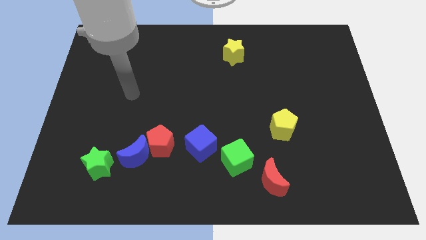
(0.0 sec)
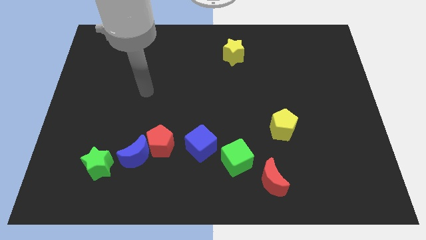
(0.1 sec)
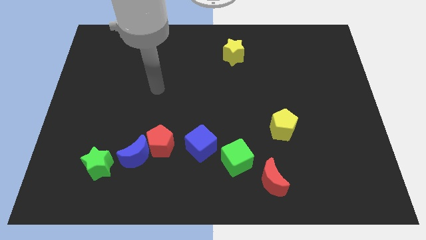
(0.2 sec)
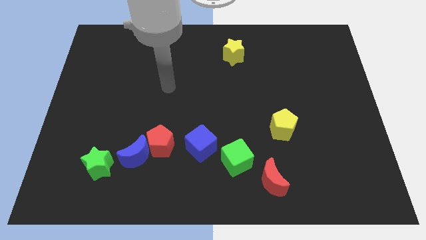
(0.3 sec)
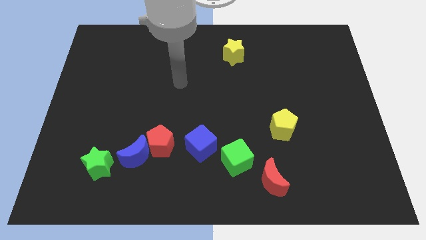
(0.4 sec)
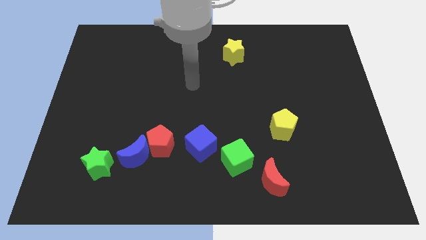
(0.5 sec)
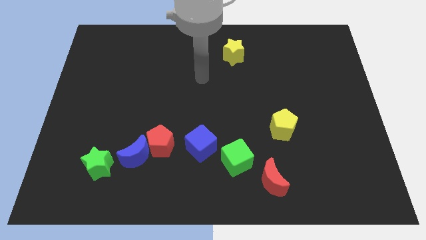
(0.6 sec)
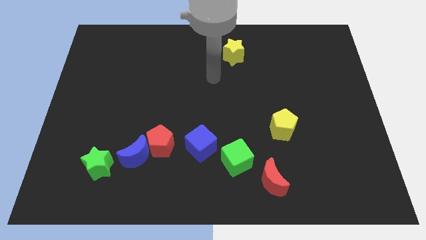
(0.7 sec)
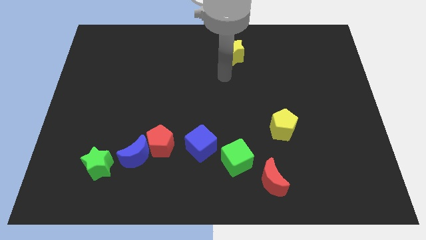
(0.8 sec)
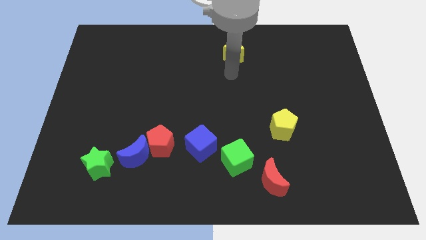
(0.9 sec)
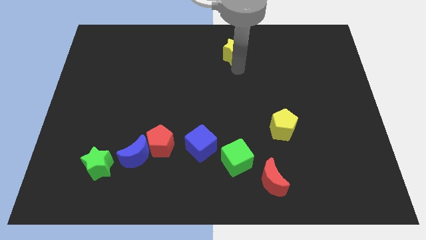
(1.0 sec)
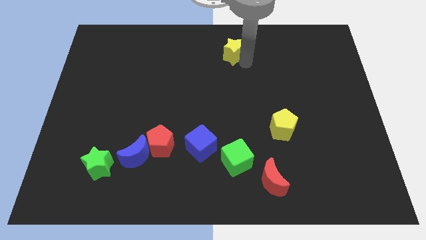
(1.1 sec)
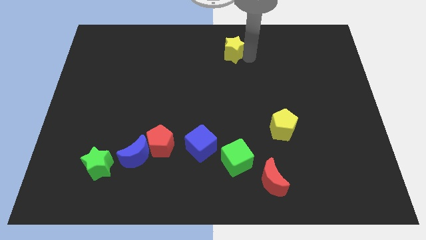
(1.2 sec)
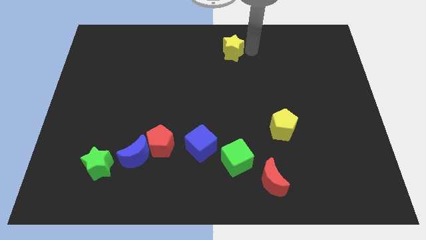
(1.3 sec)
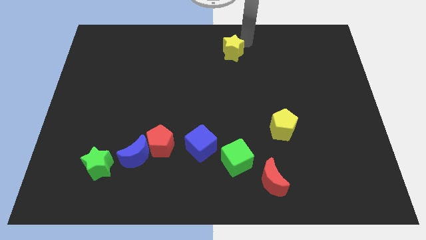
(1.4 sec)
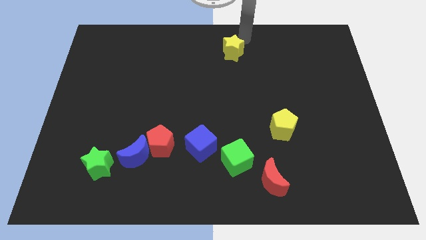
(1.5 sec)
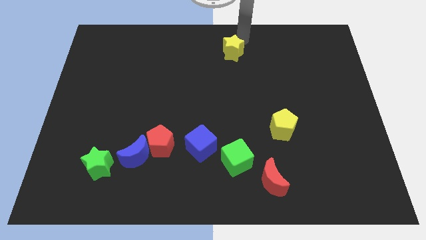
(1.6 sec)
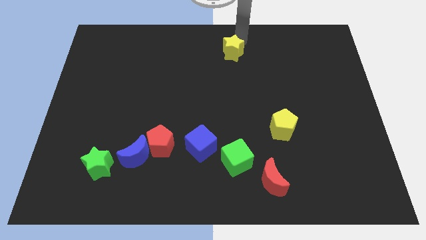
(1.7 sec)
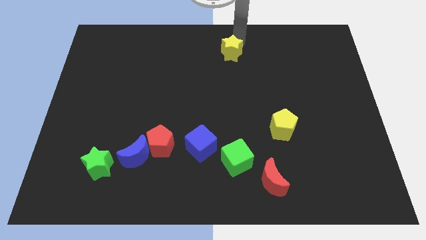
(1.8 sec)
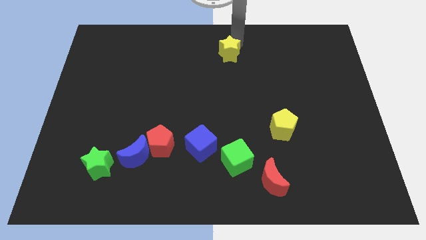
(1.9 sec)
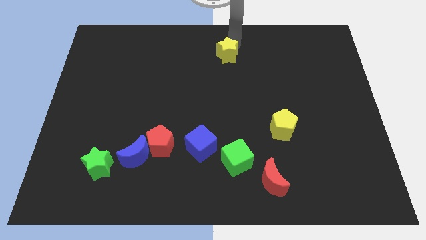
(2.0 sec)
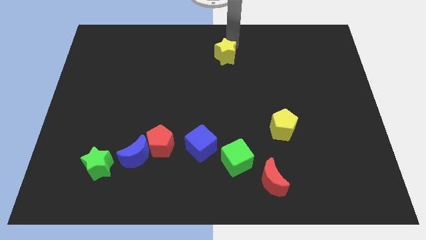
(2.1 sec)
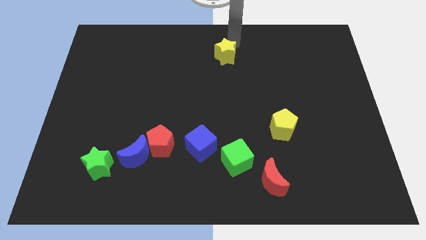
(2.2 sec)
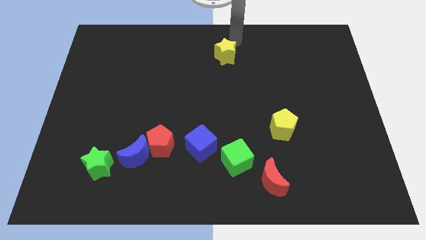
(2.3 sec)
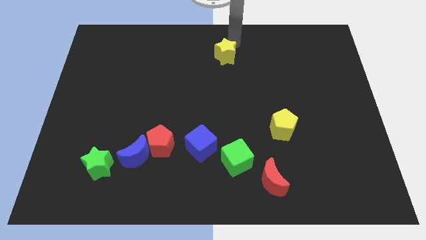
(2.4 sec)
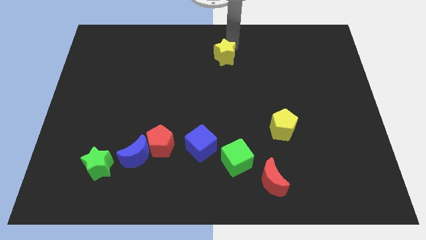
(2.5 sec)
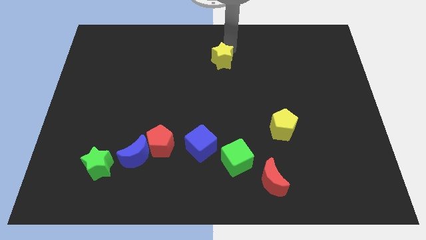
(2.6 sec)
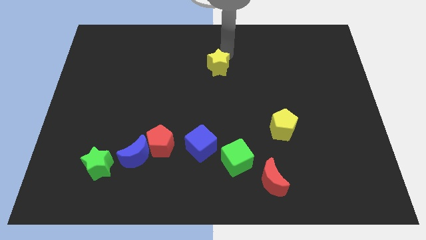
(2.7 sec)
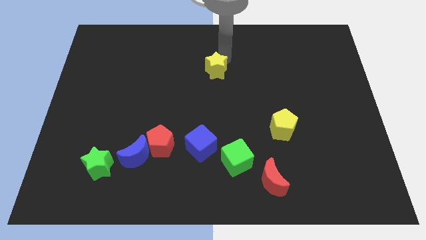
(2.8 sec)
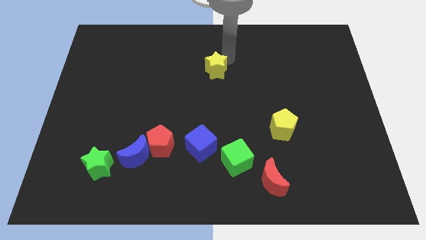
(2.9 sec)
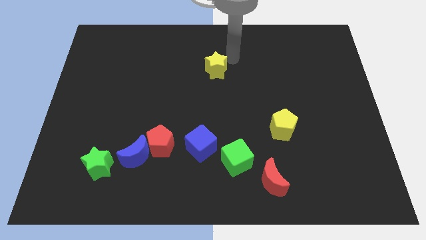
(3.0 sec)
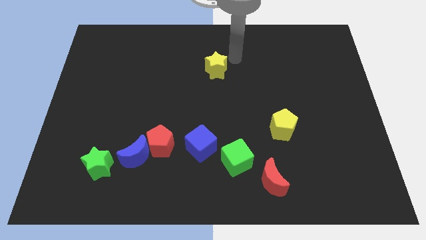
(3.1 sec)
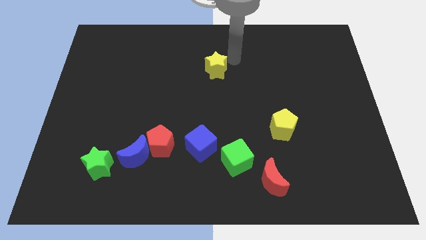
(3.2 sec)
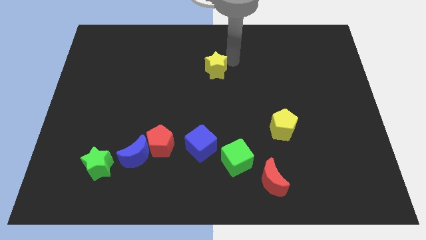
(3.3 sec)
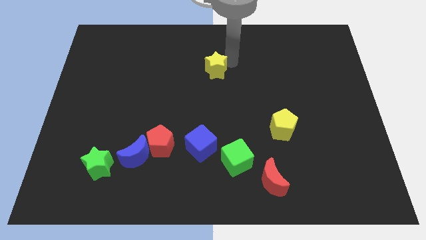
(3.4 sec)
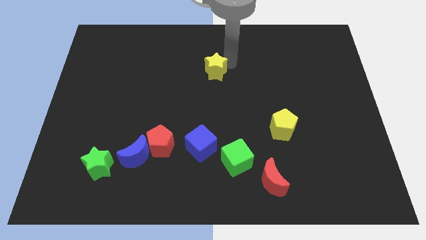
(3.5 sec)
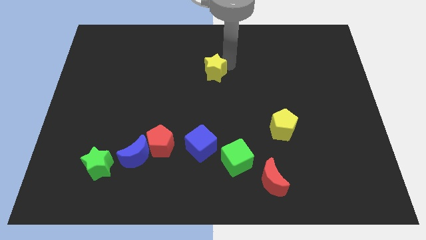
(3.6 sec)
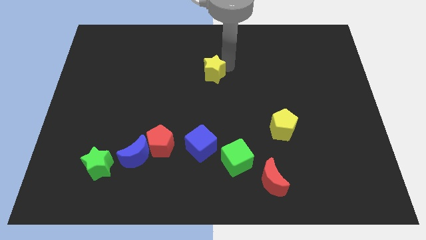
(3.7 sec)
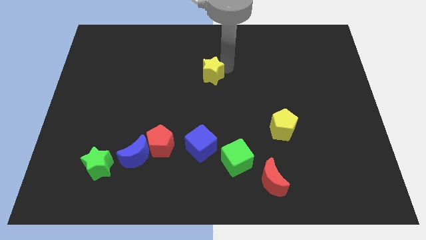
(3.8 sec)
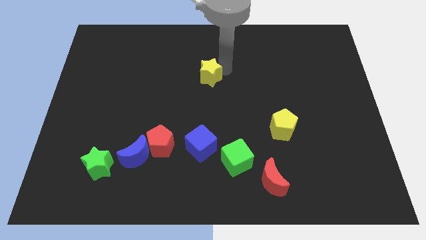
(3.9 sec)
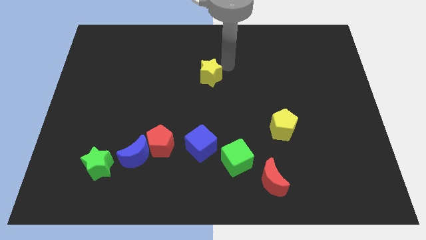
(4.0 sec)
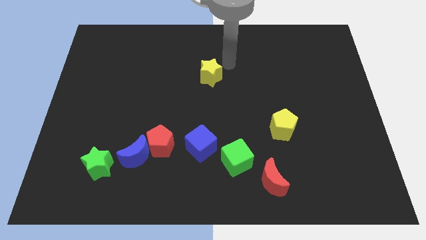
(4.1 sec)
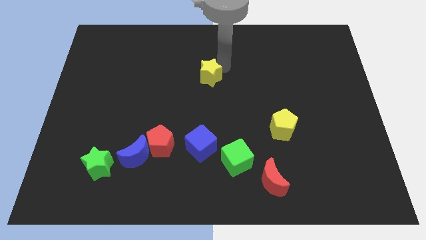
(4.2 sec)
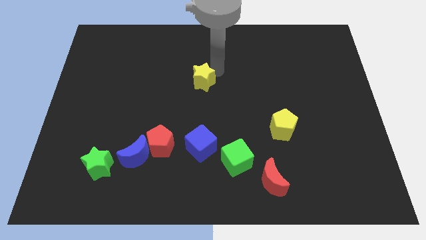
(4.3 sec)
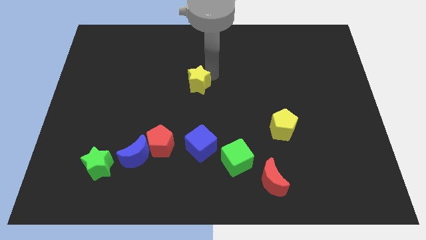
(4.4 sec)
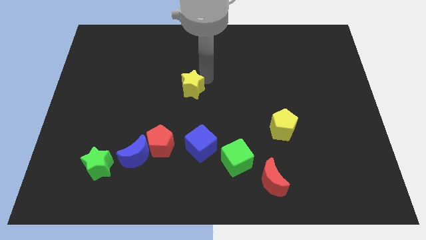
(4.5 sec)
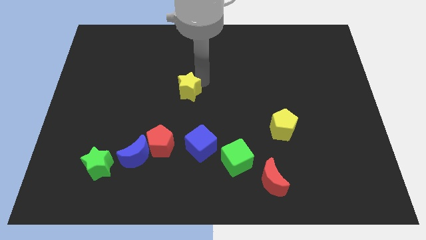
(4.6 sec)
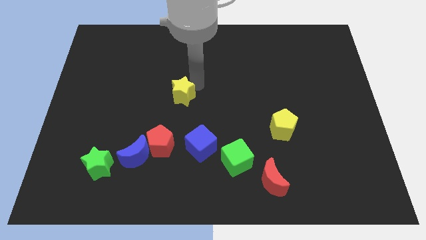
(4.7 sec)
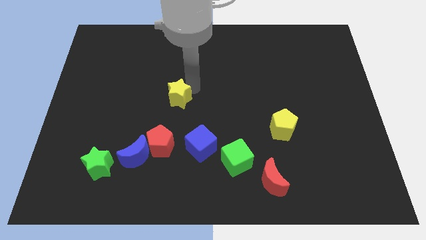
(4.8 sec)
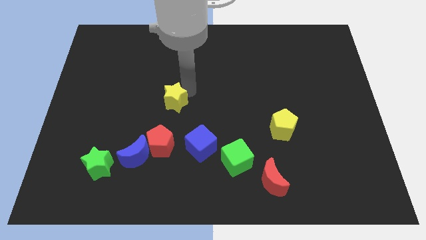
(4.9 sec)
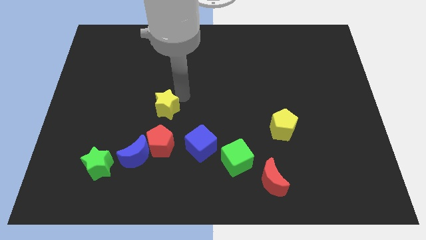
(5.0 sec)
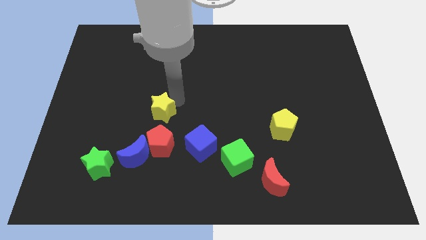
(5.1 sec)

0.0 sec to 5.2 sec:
move the yellow star to the top side of the blue moon

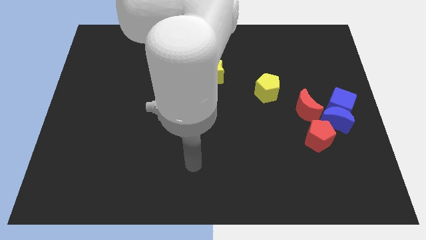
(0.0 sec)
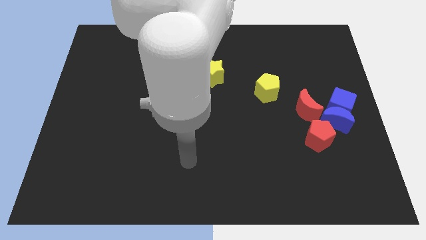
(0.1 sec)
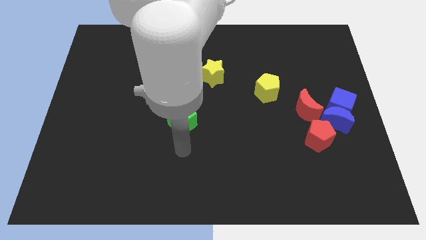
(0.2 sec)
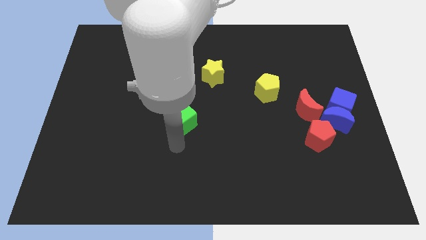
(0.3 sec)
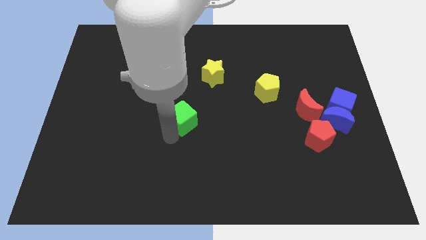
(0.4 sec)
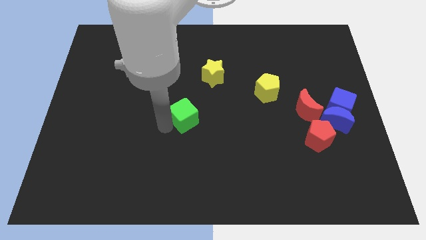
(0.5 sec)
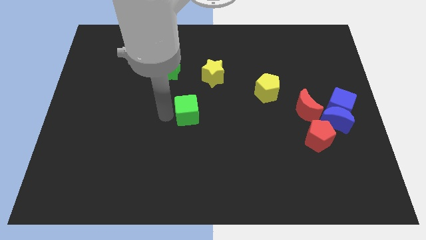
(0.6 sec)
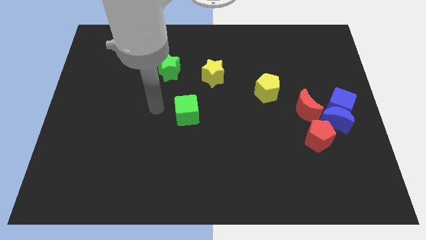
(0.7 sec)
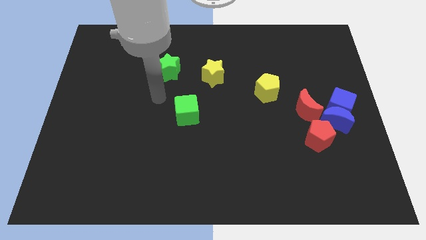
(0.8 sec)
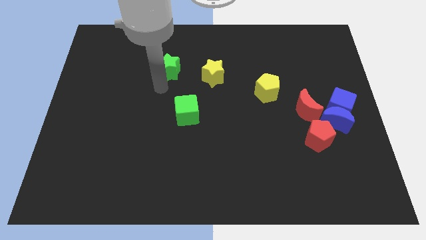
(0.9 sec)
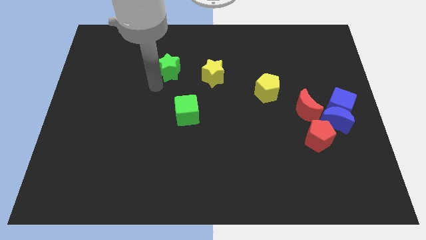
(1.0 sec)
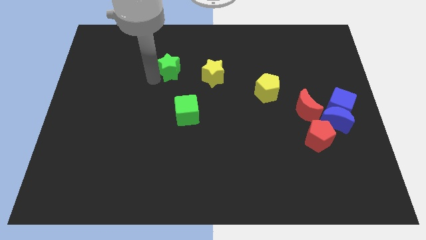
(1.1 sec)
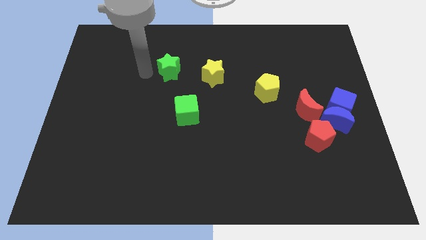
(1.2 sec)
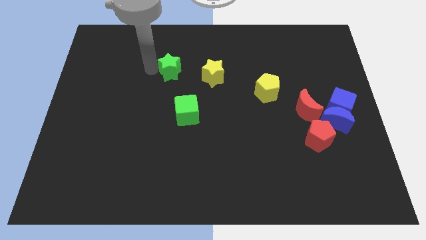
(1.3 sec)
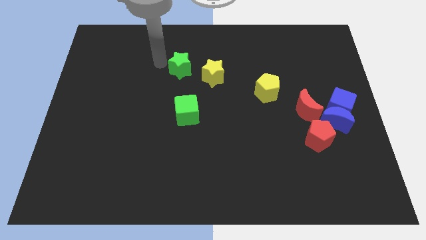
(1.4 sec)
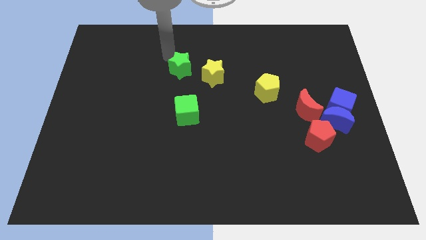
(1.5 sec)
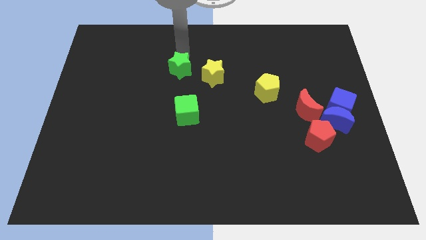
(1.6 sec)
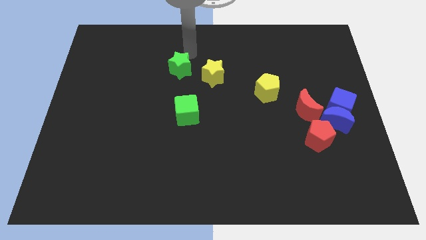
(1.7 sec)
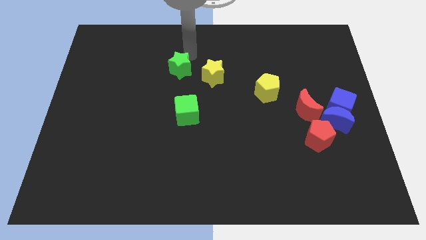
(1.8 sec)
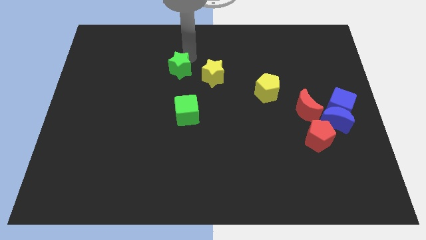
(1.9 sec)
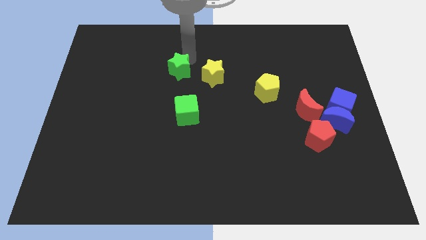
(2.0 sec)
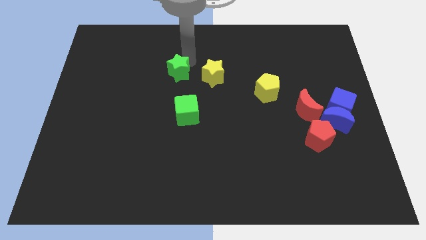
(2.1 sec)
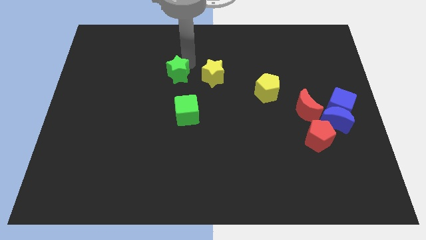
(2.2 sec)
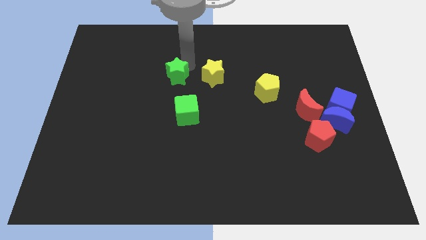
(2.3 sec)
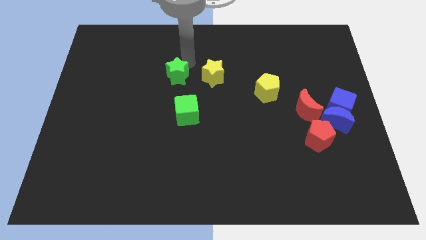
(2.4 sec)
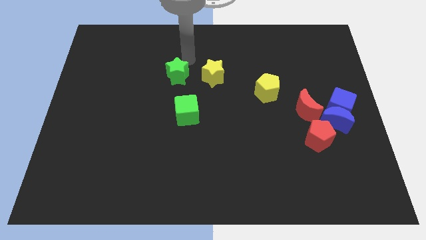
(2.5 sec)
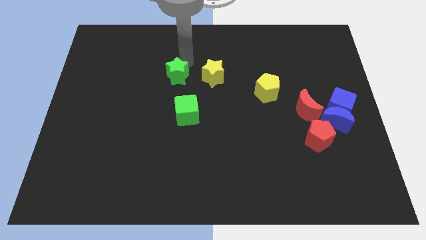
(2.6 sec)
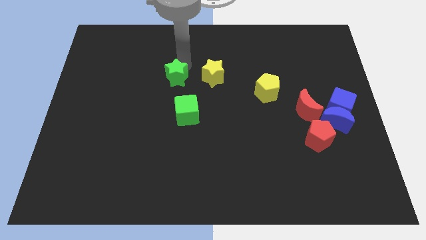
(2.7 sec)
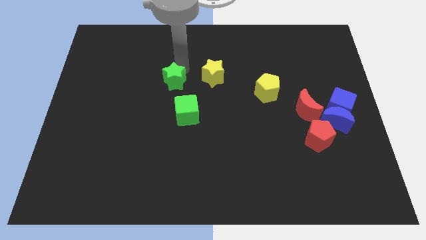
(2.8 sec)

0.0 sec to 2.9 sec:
move the green star to the top left of the green cube
